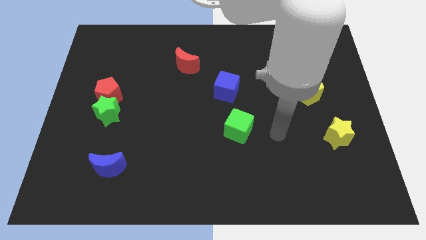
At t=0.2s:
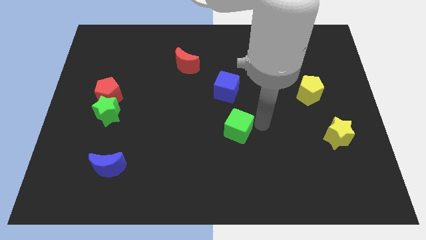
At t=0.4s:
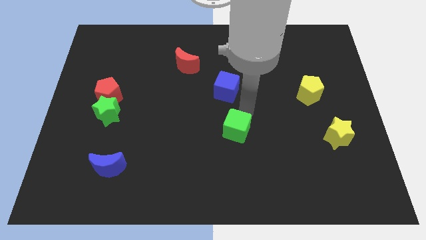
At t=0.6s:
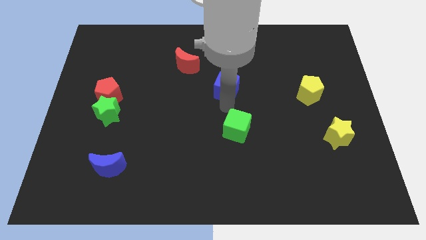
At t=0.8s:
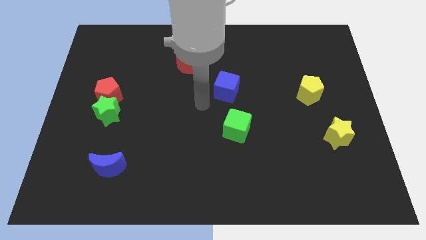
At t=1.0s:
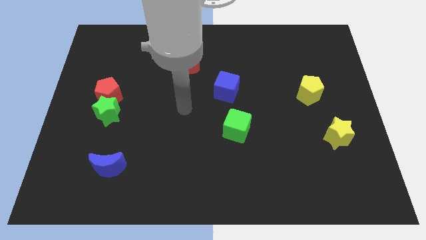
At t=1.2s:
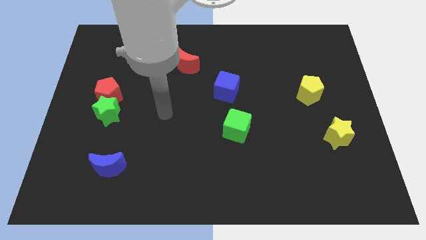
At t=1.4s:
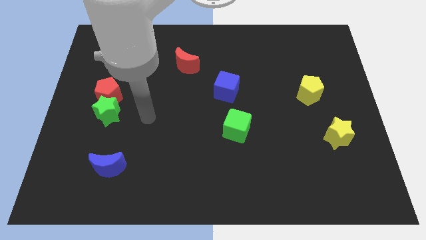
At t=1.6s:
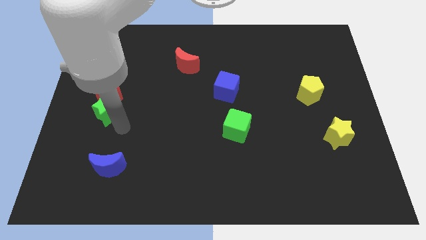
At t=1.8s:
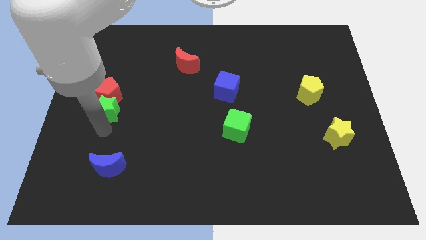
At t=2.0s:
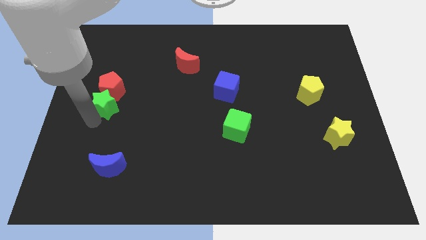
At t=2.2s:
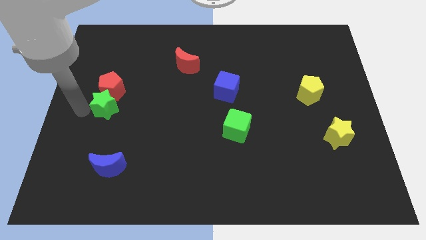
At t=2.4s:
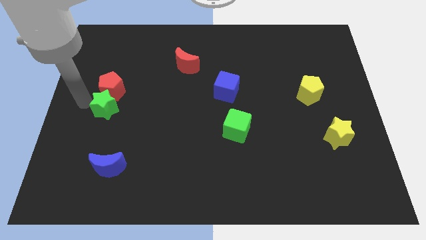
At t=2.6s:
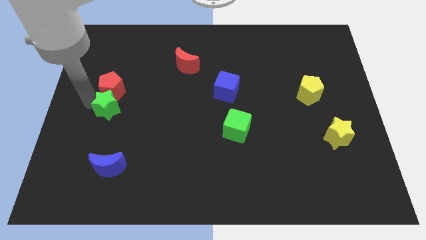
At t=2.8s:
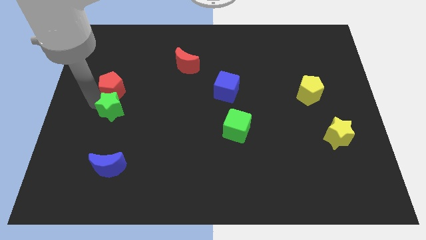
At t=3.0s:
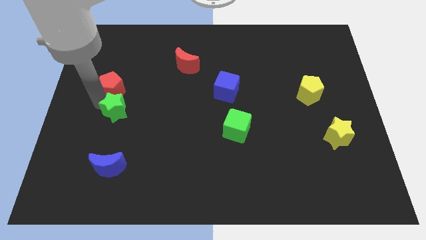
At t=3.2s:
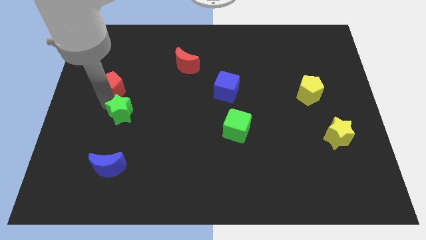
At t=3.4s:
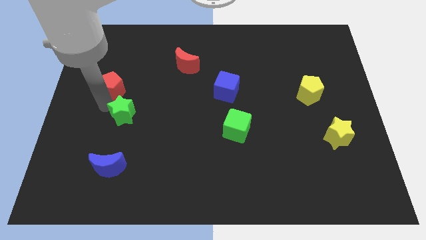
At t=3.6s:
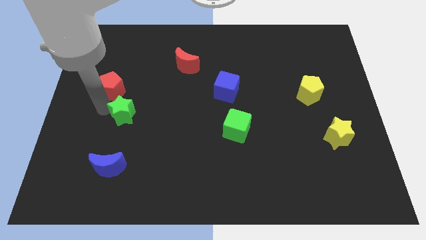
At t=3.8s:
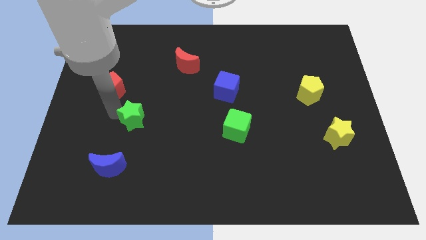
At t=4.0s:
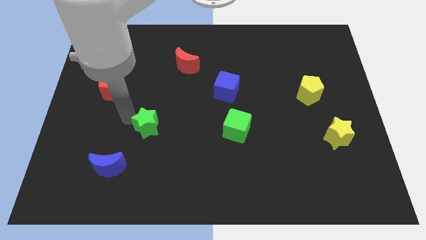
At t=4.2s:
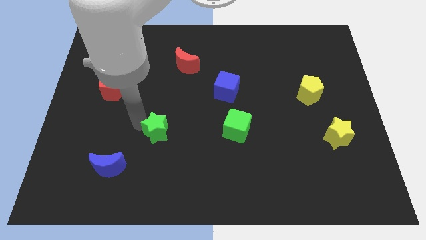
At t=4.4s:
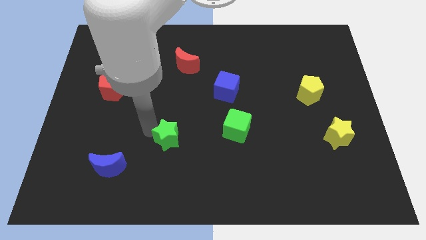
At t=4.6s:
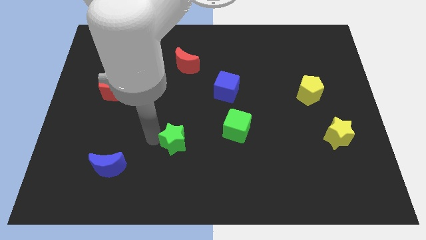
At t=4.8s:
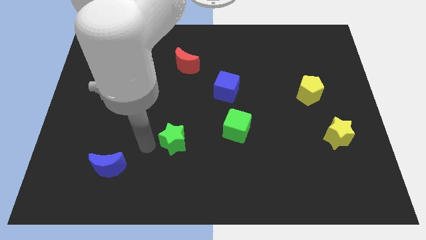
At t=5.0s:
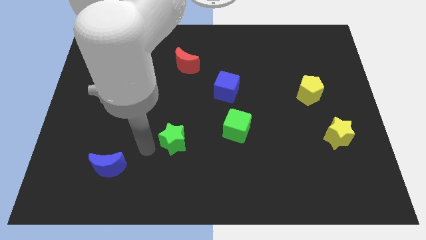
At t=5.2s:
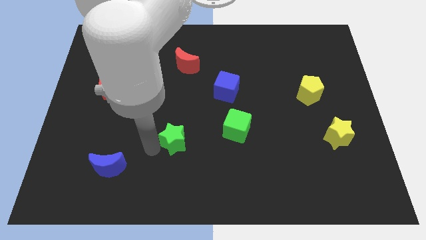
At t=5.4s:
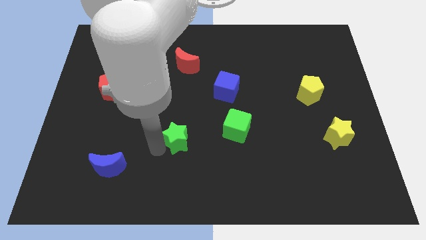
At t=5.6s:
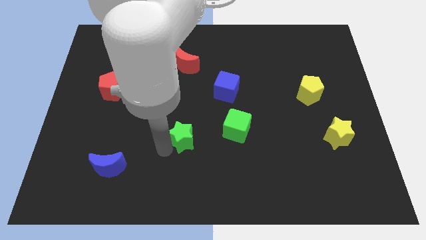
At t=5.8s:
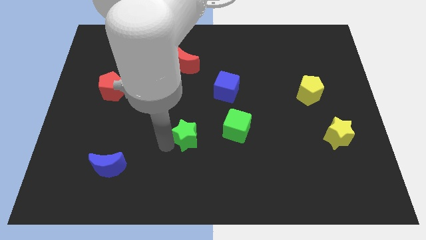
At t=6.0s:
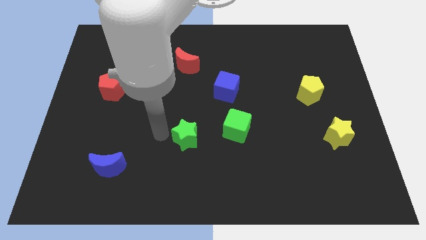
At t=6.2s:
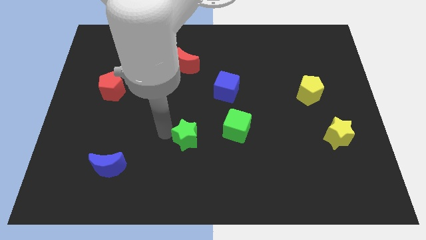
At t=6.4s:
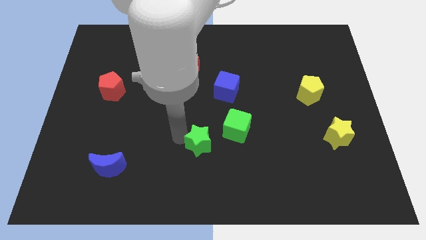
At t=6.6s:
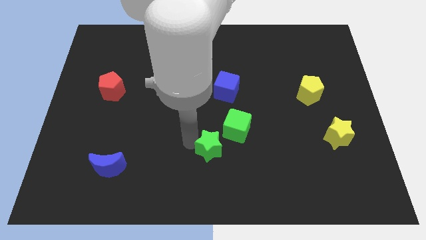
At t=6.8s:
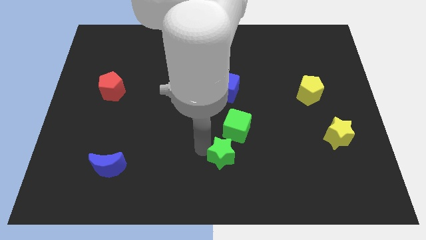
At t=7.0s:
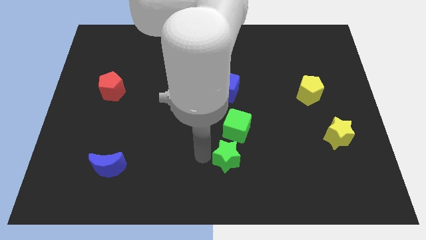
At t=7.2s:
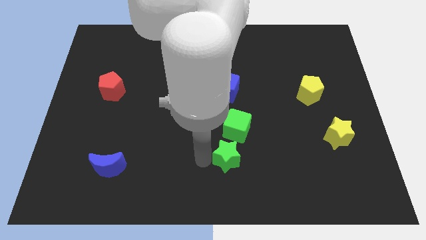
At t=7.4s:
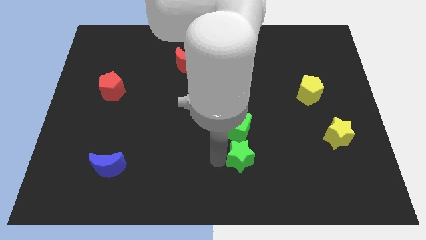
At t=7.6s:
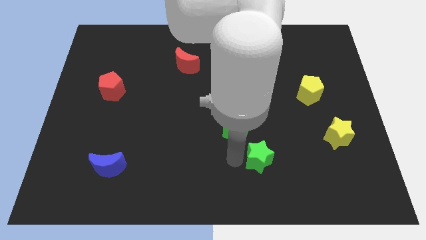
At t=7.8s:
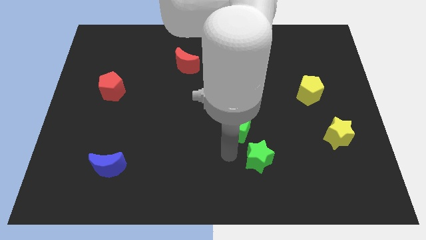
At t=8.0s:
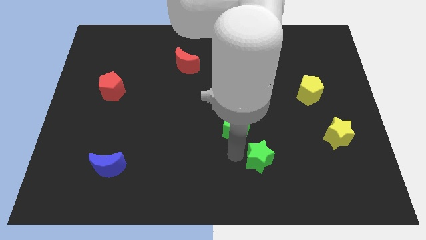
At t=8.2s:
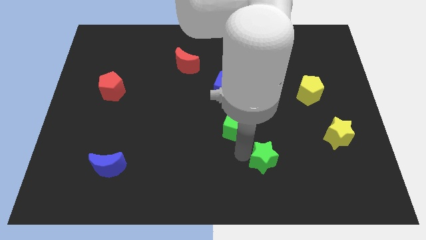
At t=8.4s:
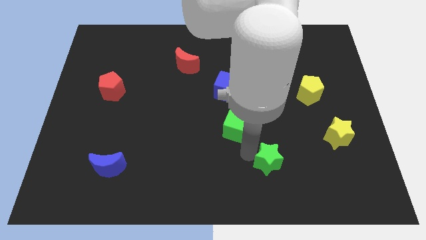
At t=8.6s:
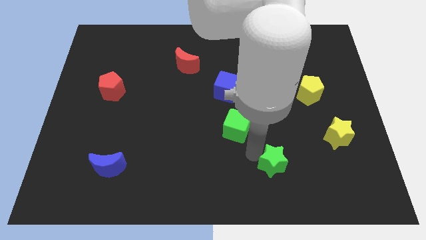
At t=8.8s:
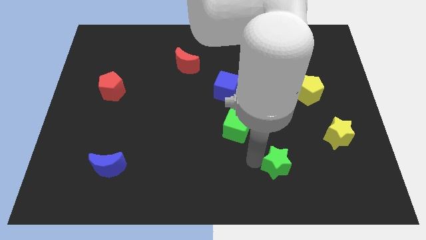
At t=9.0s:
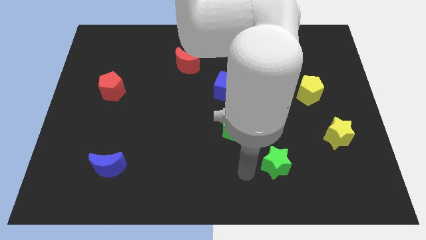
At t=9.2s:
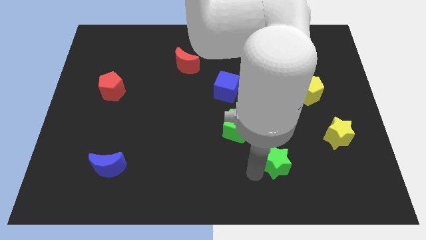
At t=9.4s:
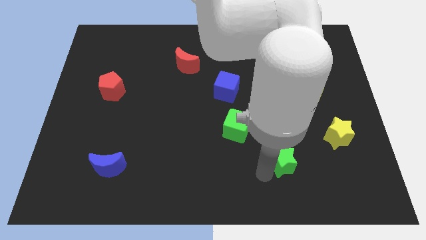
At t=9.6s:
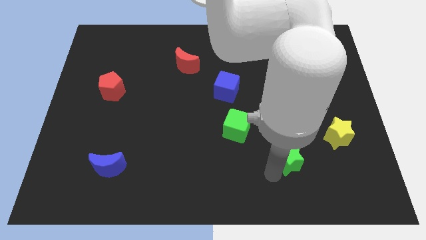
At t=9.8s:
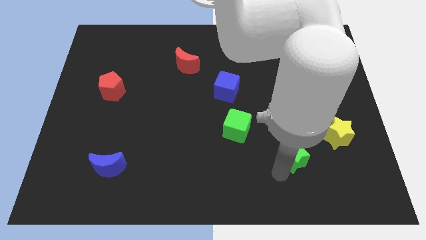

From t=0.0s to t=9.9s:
slide the green star to the bottom left of the yellow star

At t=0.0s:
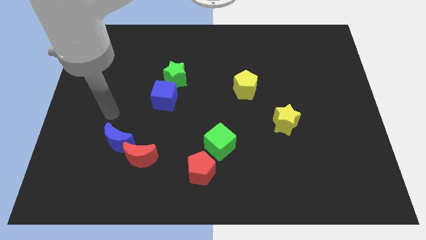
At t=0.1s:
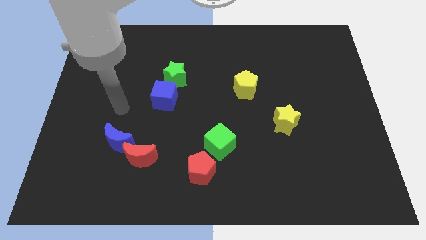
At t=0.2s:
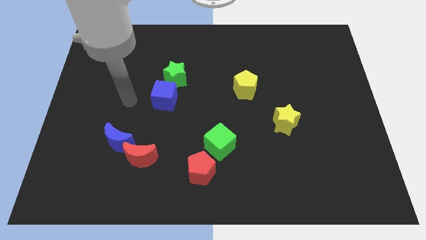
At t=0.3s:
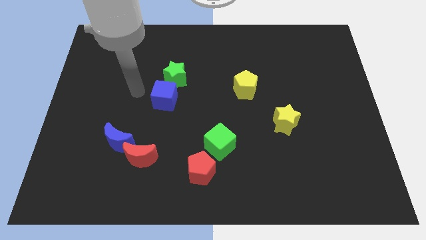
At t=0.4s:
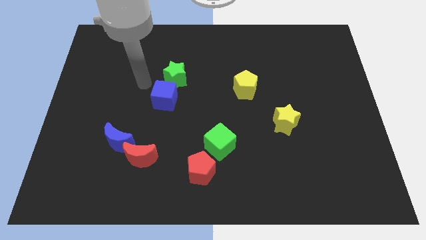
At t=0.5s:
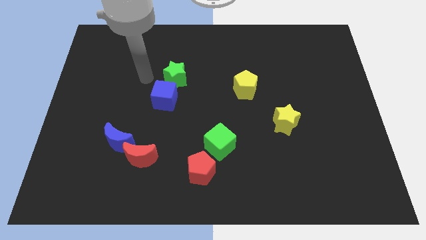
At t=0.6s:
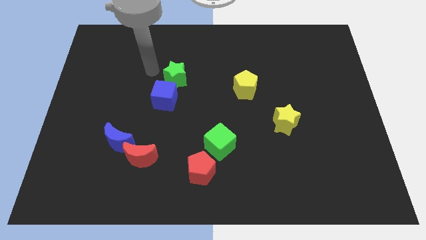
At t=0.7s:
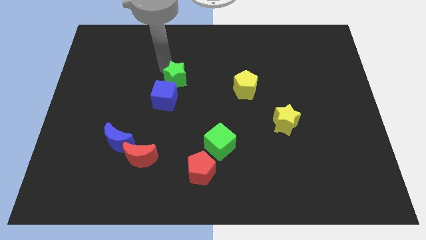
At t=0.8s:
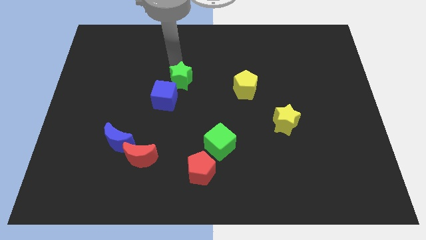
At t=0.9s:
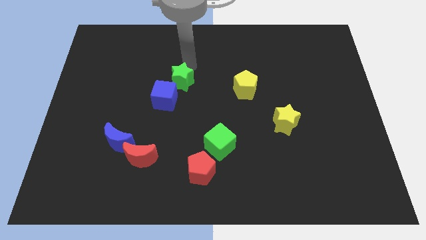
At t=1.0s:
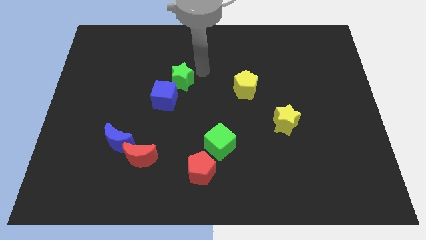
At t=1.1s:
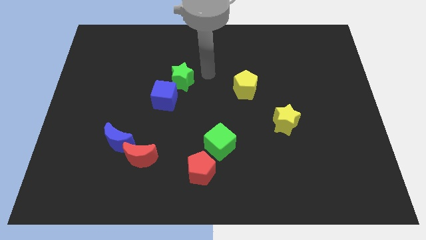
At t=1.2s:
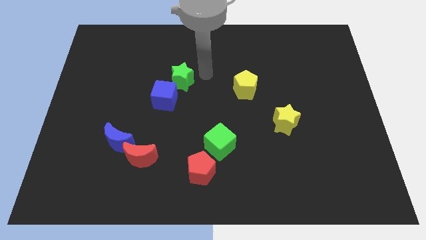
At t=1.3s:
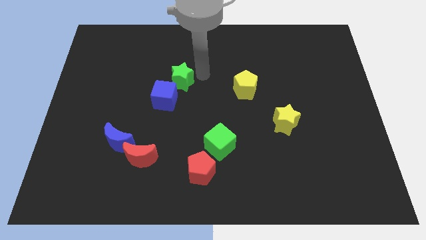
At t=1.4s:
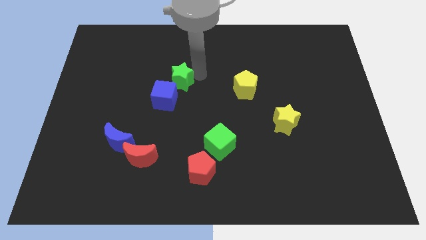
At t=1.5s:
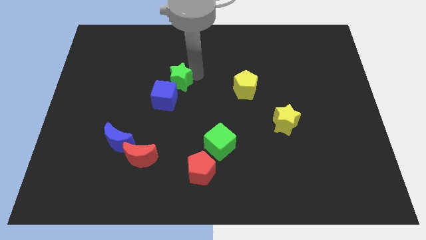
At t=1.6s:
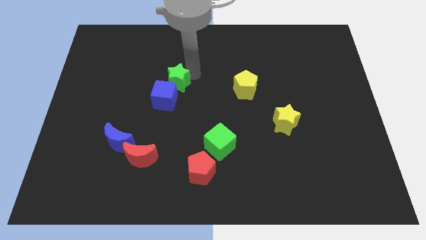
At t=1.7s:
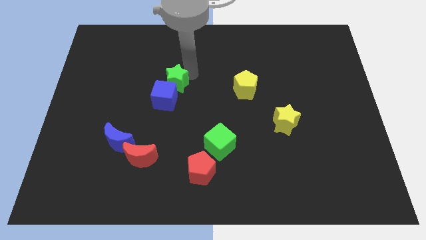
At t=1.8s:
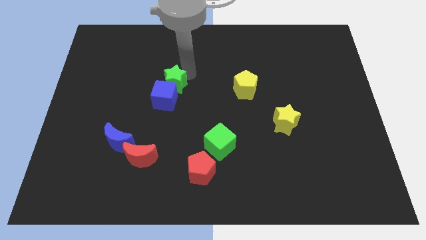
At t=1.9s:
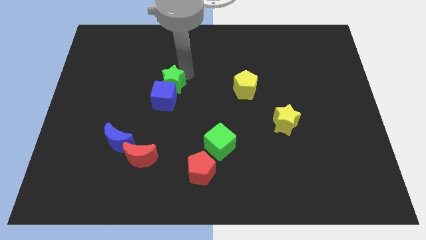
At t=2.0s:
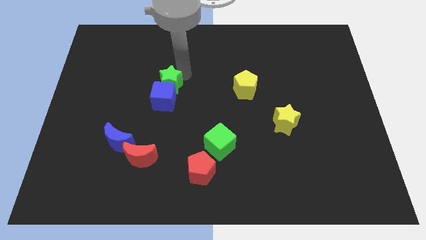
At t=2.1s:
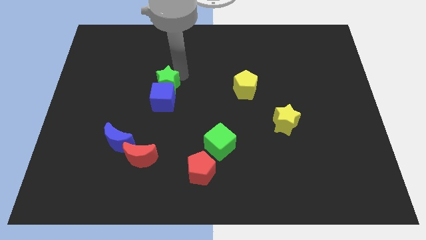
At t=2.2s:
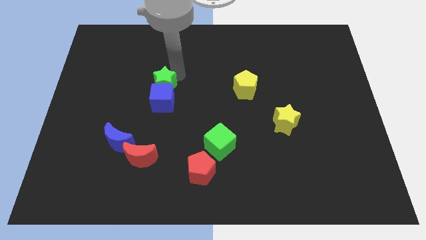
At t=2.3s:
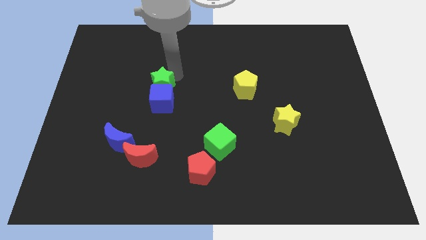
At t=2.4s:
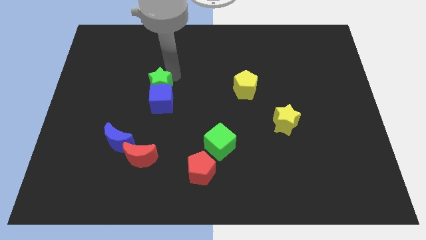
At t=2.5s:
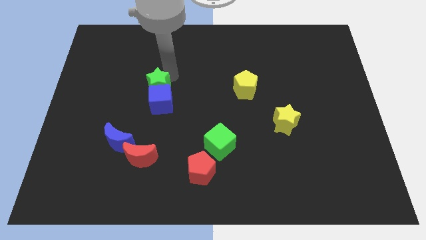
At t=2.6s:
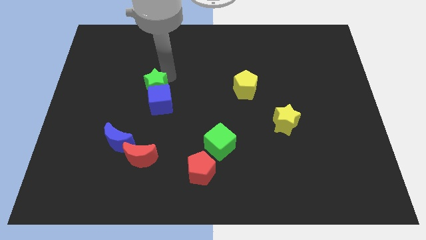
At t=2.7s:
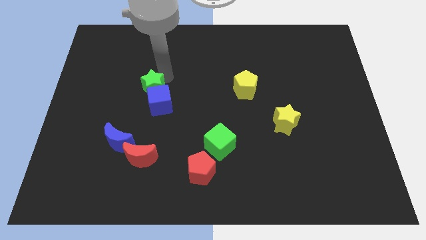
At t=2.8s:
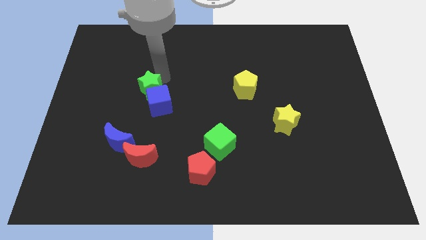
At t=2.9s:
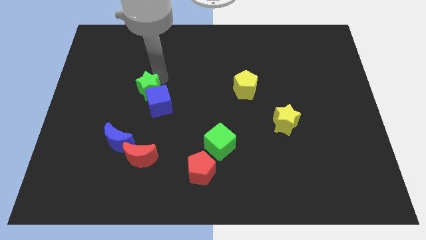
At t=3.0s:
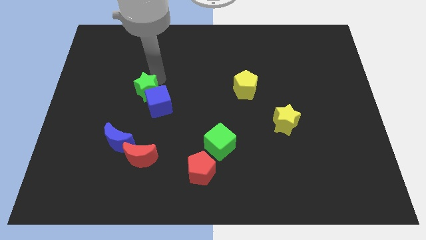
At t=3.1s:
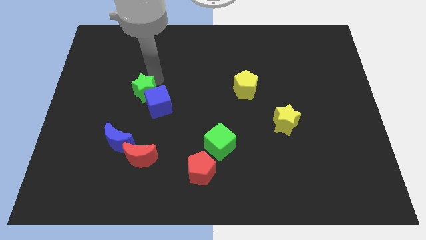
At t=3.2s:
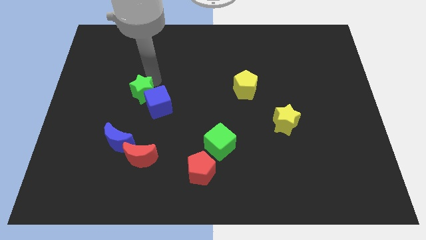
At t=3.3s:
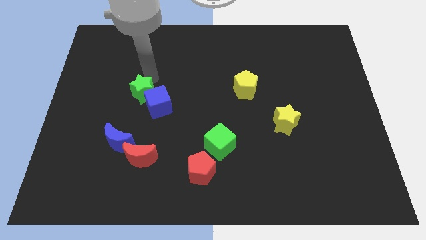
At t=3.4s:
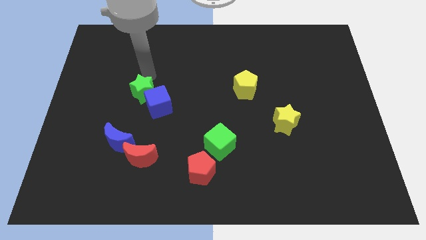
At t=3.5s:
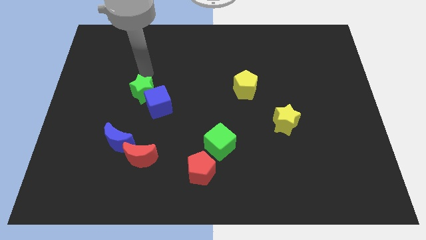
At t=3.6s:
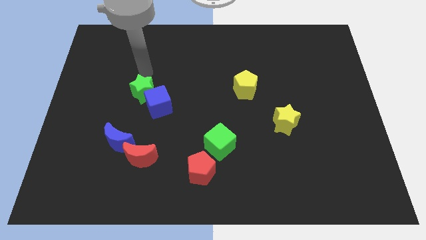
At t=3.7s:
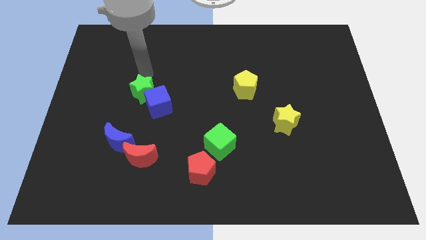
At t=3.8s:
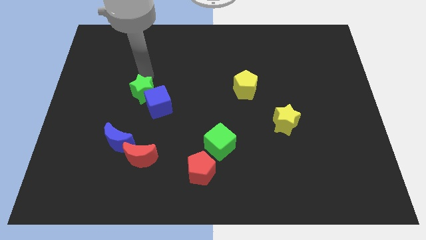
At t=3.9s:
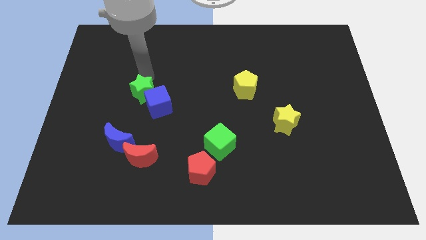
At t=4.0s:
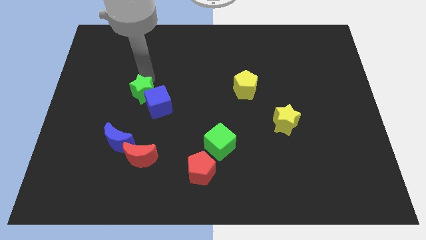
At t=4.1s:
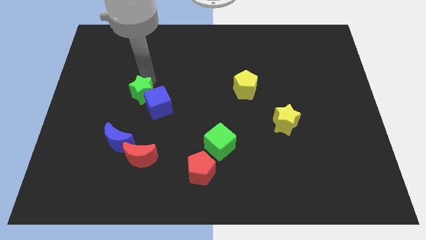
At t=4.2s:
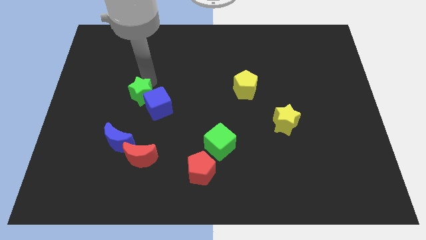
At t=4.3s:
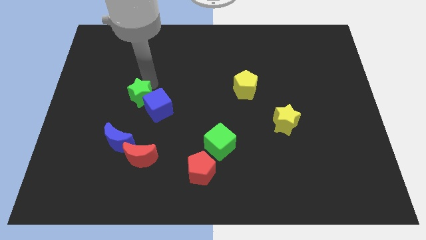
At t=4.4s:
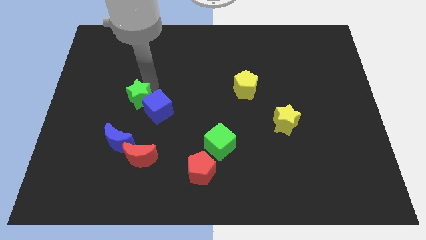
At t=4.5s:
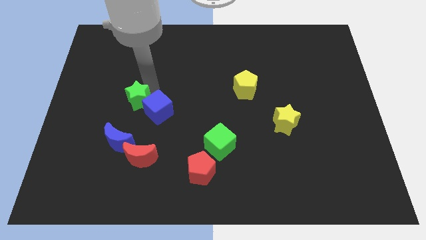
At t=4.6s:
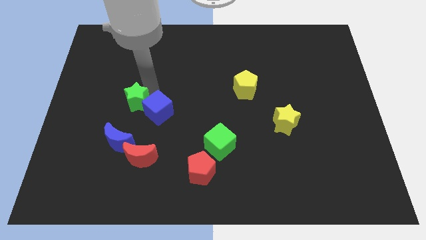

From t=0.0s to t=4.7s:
put the green star to the top side of the red moon
